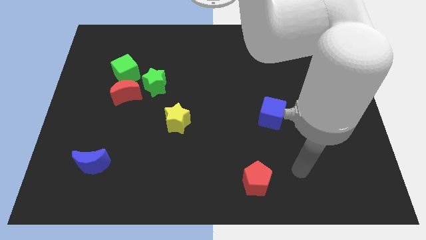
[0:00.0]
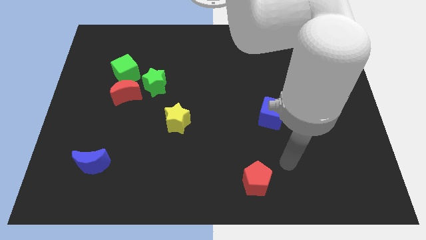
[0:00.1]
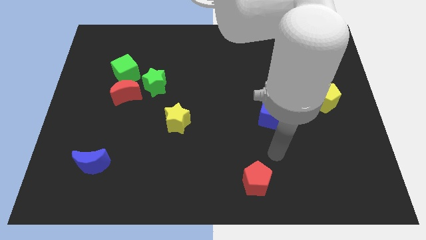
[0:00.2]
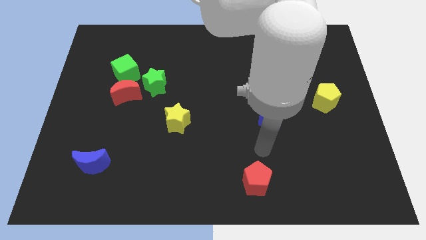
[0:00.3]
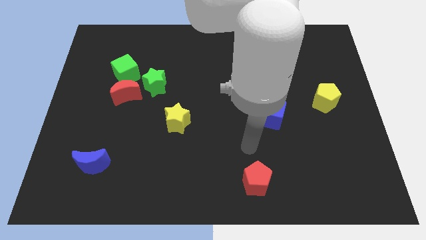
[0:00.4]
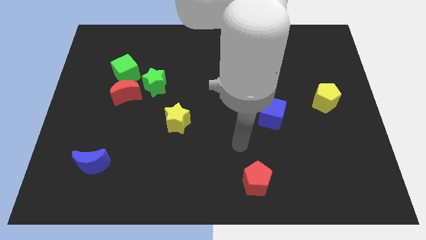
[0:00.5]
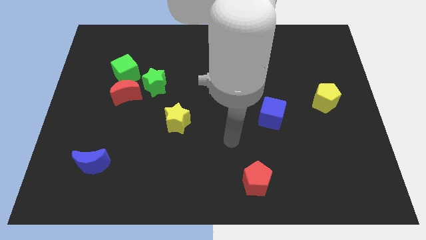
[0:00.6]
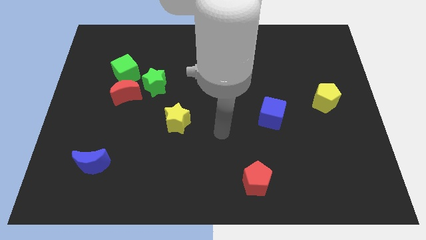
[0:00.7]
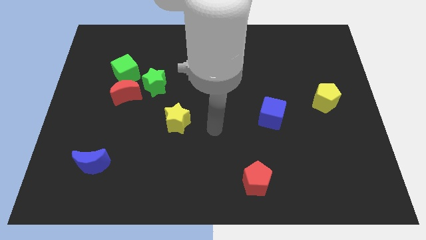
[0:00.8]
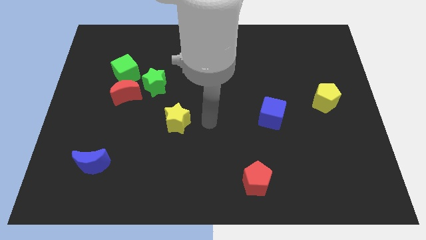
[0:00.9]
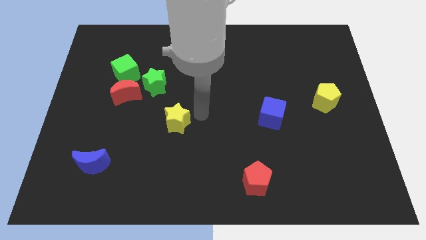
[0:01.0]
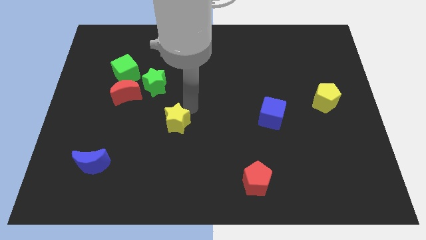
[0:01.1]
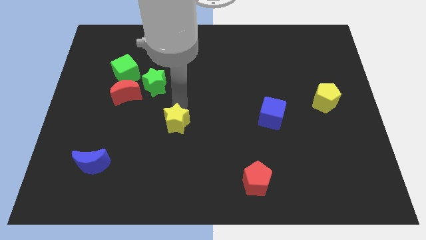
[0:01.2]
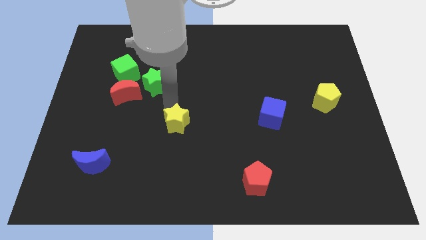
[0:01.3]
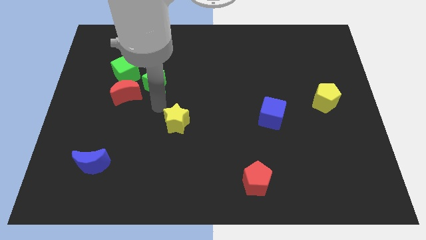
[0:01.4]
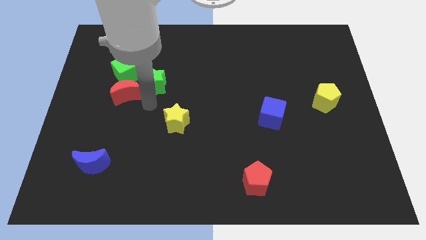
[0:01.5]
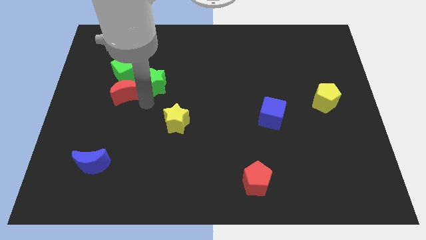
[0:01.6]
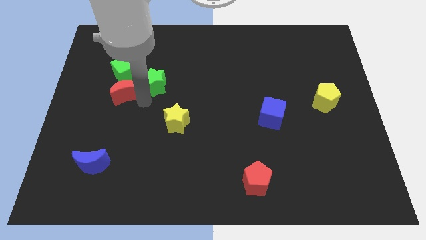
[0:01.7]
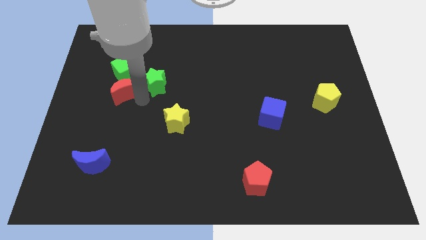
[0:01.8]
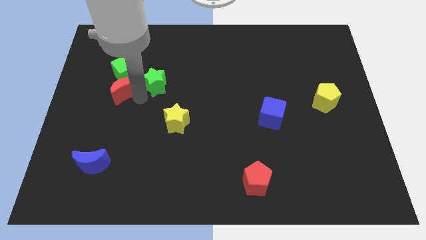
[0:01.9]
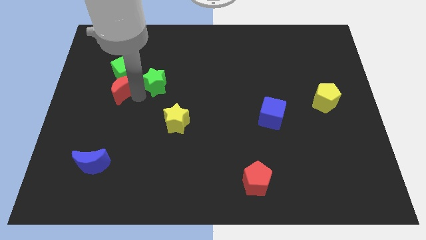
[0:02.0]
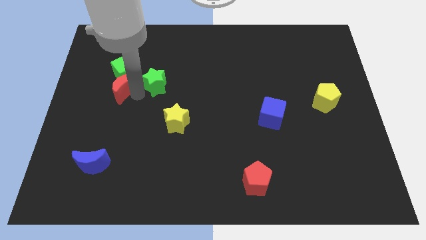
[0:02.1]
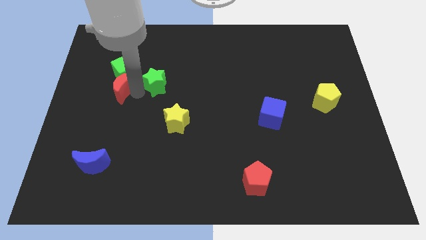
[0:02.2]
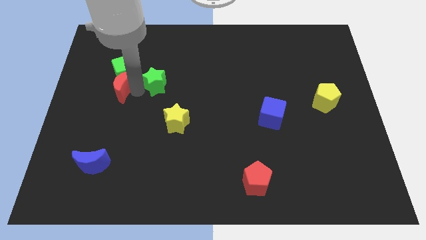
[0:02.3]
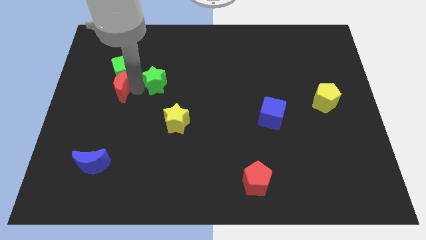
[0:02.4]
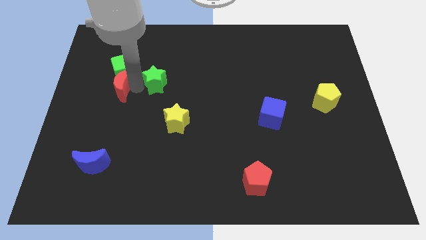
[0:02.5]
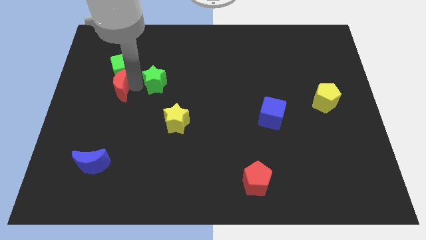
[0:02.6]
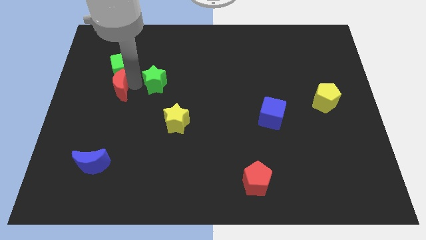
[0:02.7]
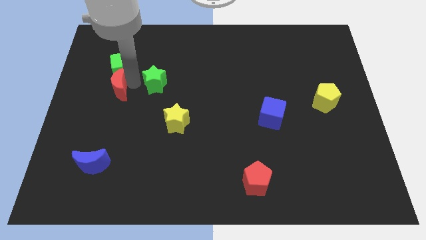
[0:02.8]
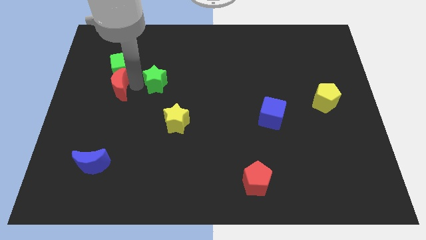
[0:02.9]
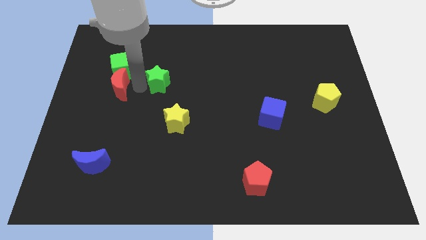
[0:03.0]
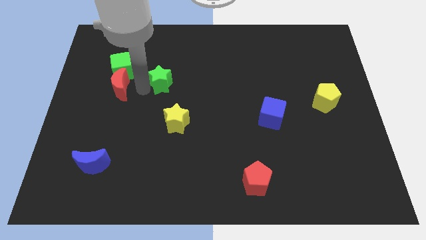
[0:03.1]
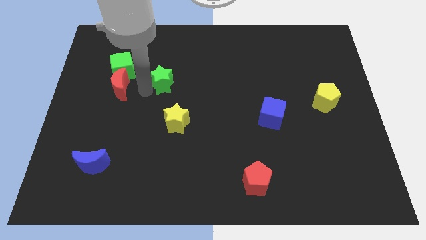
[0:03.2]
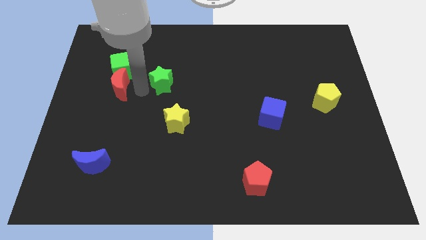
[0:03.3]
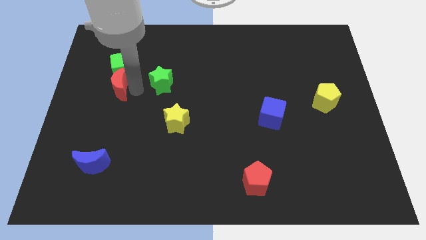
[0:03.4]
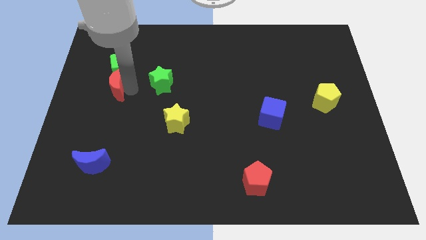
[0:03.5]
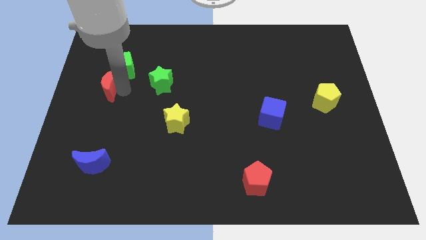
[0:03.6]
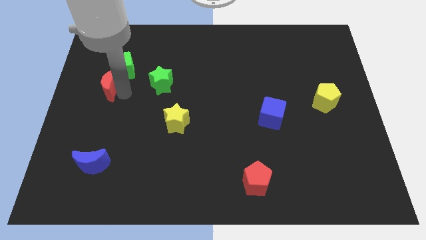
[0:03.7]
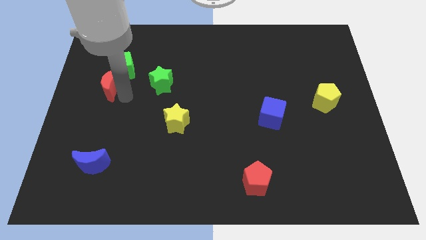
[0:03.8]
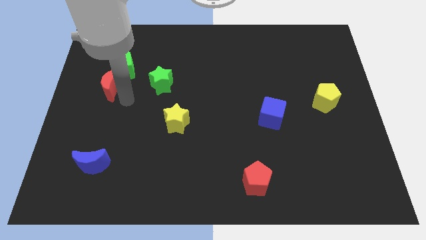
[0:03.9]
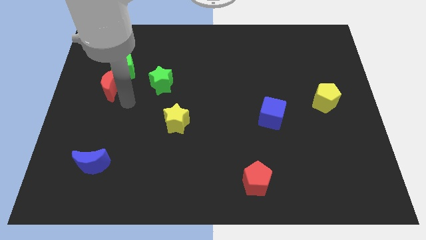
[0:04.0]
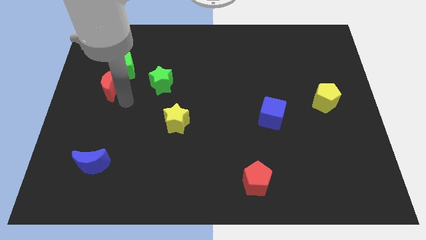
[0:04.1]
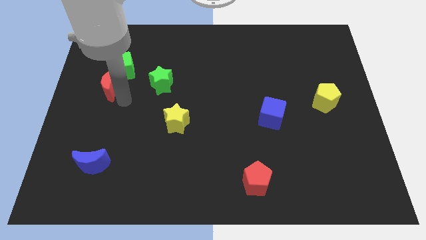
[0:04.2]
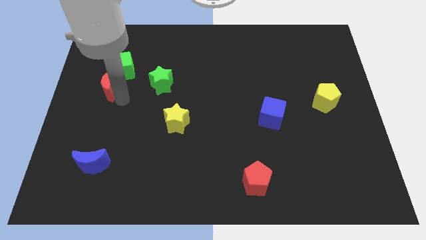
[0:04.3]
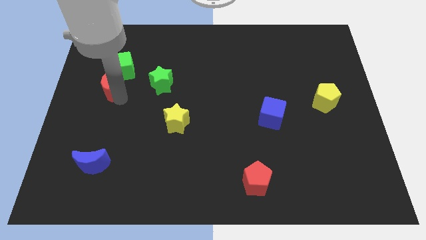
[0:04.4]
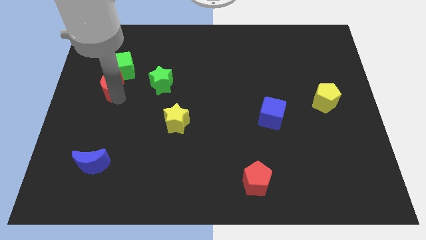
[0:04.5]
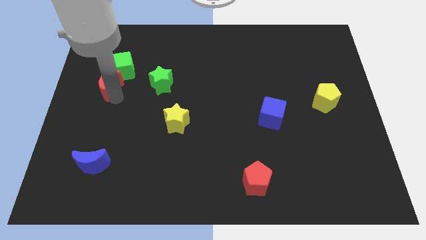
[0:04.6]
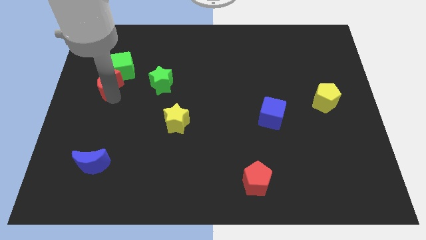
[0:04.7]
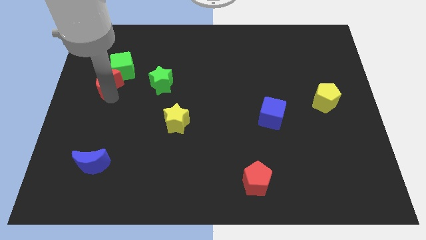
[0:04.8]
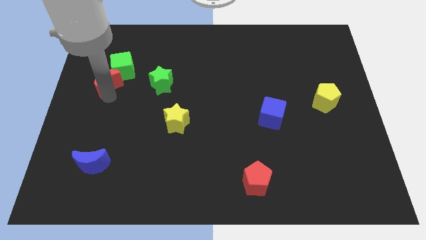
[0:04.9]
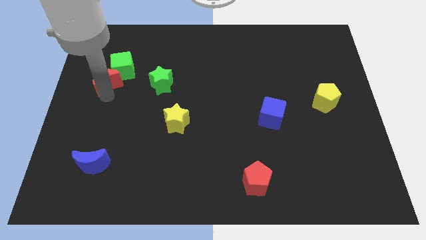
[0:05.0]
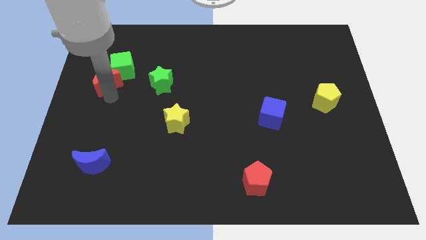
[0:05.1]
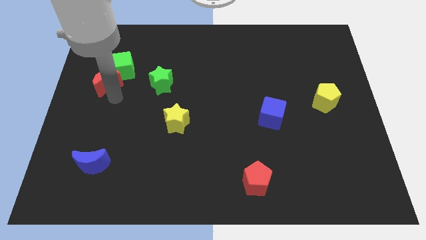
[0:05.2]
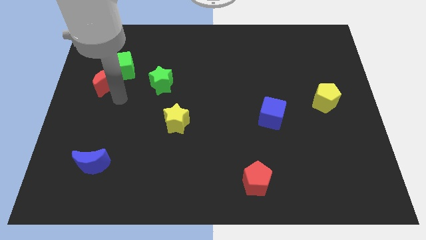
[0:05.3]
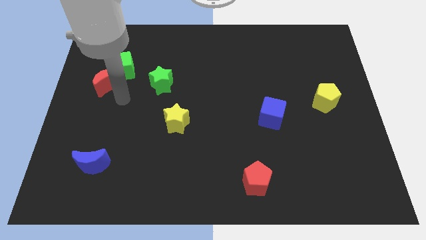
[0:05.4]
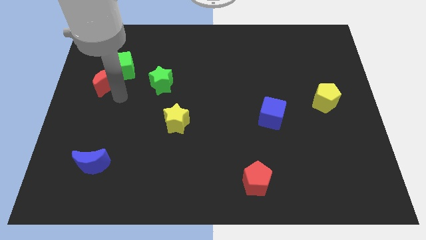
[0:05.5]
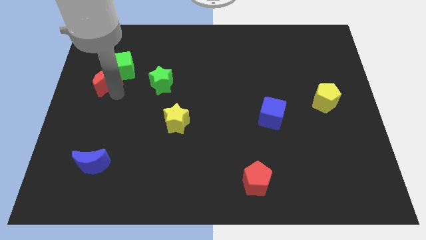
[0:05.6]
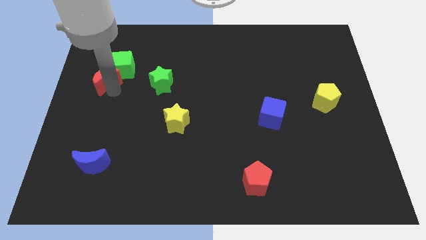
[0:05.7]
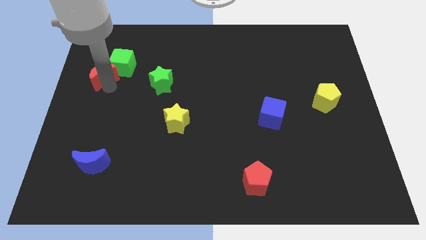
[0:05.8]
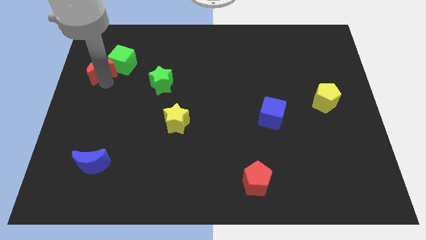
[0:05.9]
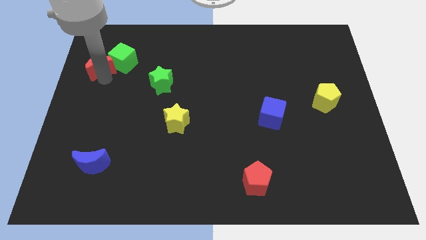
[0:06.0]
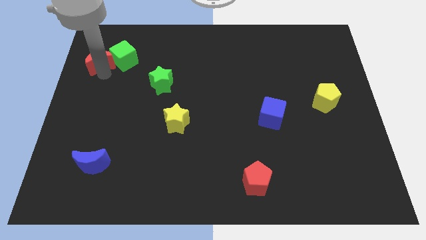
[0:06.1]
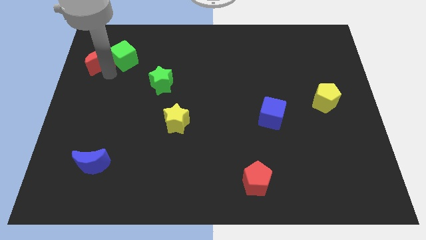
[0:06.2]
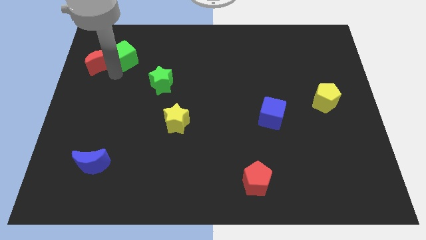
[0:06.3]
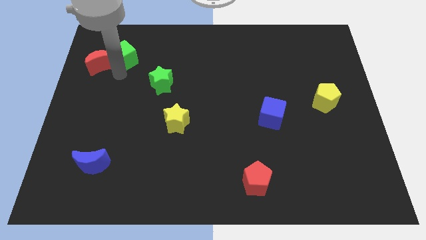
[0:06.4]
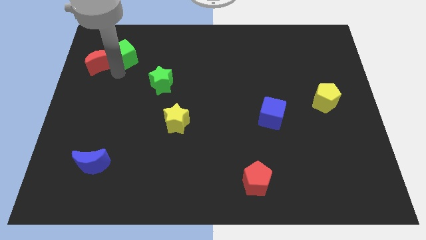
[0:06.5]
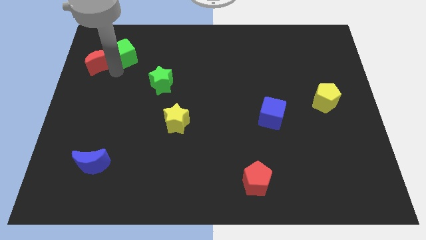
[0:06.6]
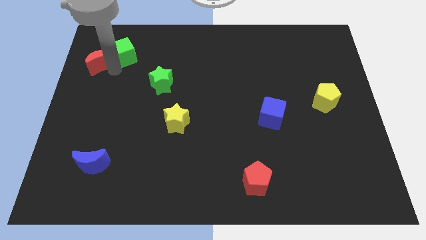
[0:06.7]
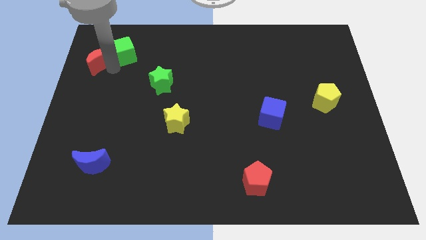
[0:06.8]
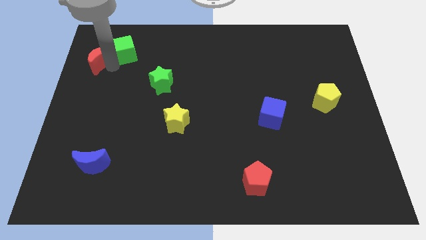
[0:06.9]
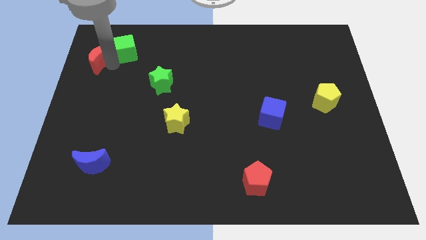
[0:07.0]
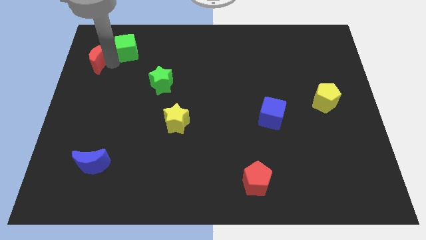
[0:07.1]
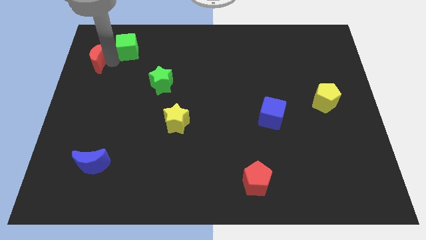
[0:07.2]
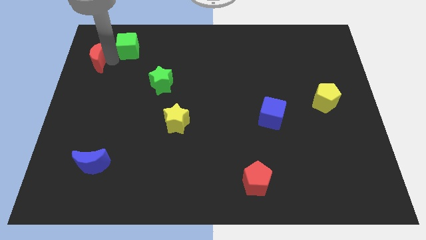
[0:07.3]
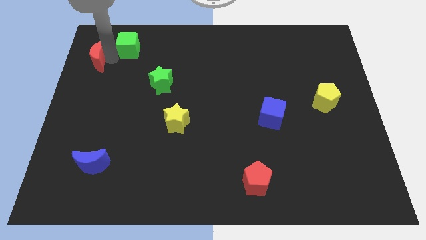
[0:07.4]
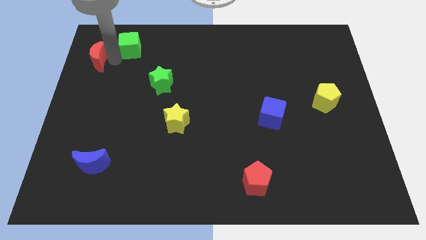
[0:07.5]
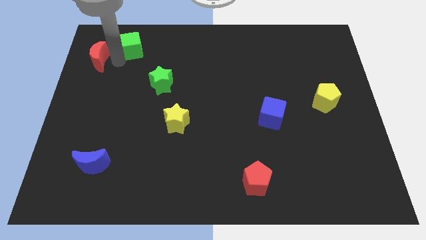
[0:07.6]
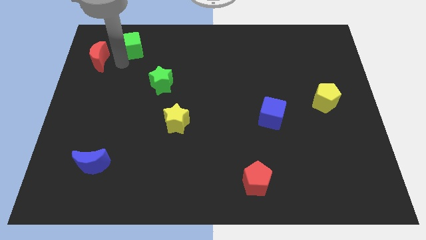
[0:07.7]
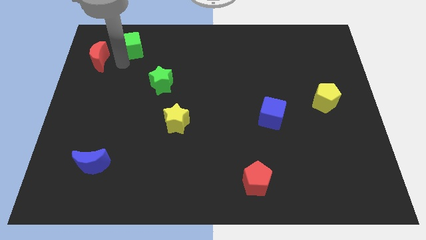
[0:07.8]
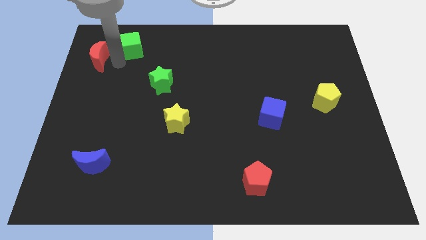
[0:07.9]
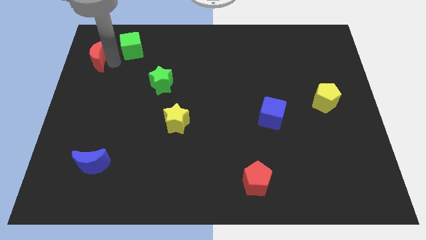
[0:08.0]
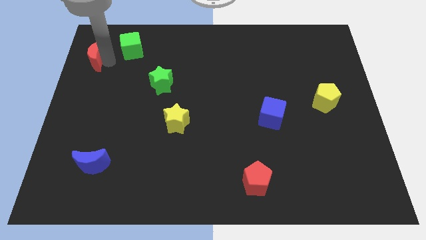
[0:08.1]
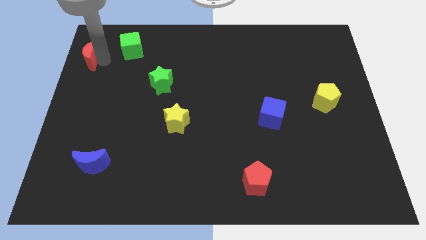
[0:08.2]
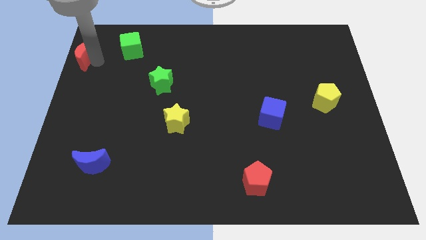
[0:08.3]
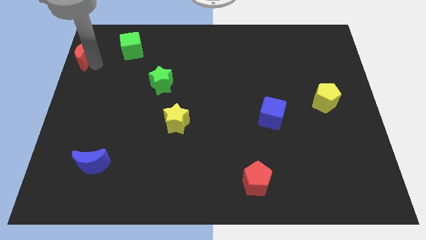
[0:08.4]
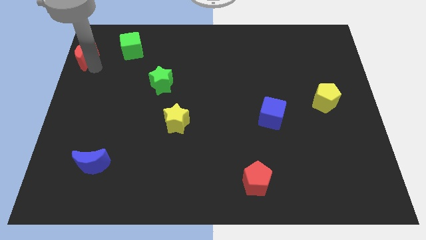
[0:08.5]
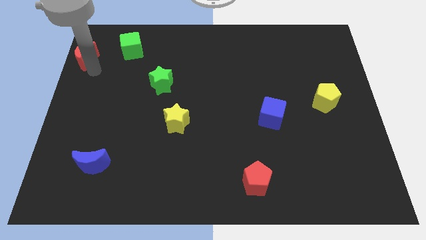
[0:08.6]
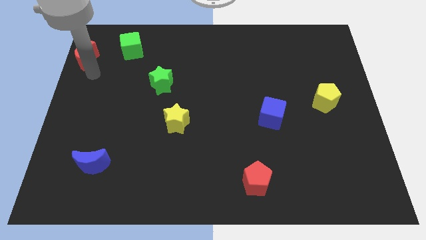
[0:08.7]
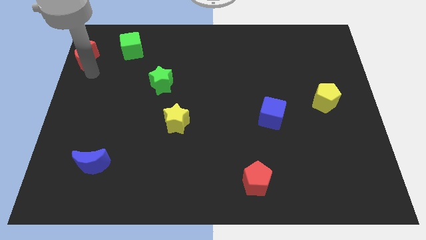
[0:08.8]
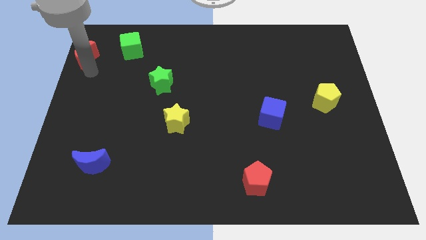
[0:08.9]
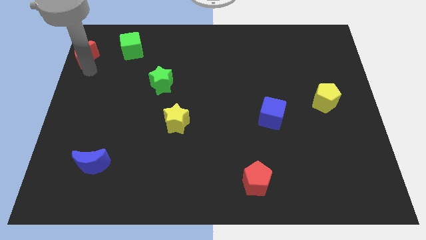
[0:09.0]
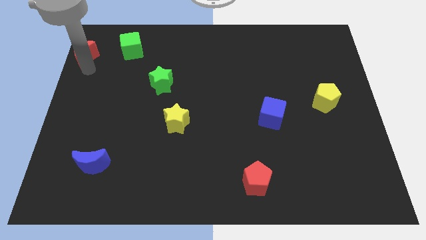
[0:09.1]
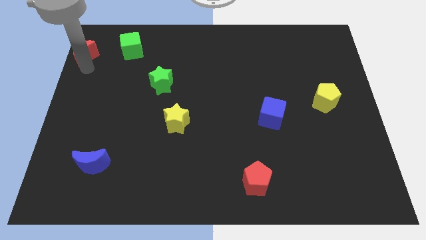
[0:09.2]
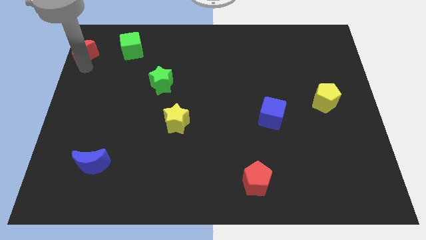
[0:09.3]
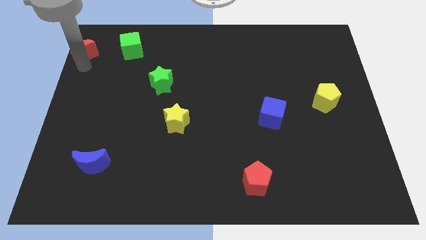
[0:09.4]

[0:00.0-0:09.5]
push the red moon to the top left
